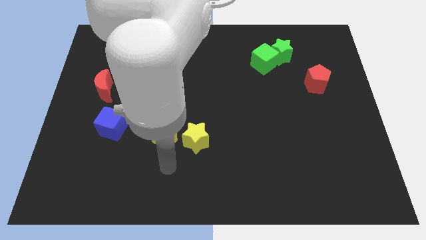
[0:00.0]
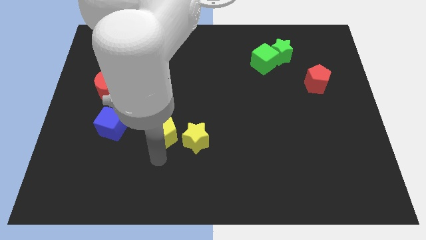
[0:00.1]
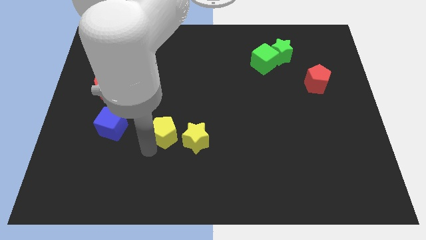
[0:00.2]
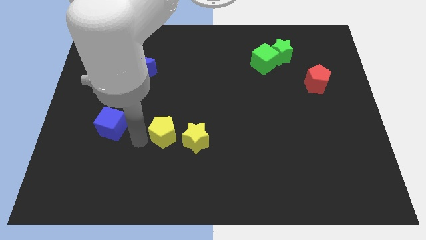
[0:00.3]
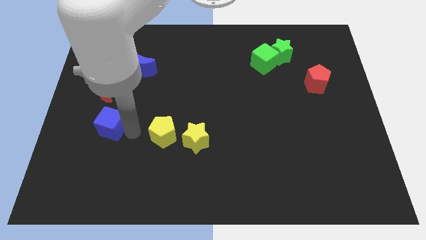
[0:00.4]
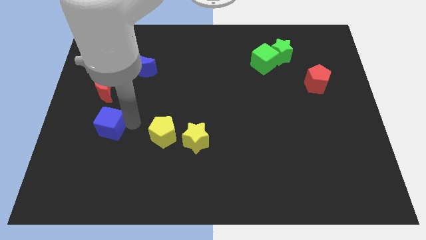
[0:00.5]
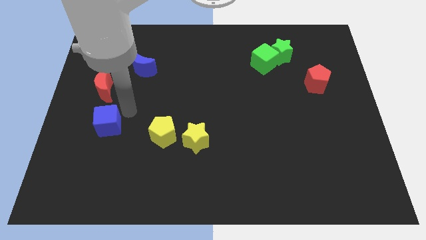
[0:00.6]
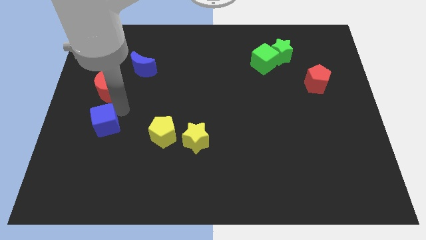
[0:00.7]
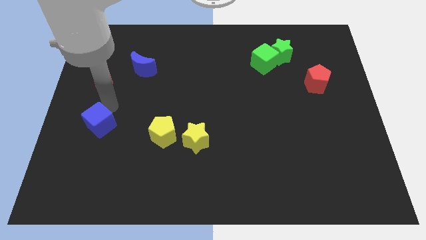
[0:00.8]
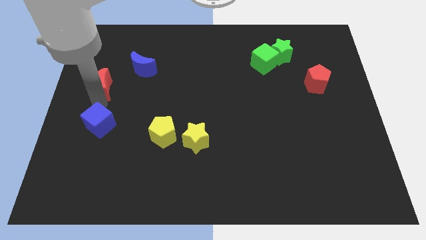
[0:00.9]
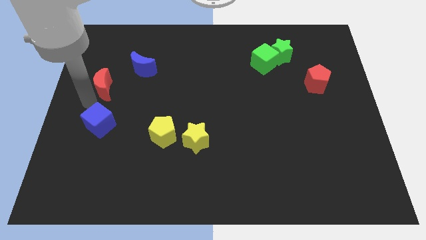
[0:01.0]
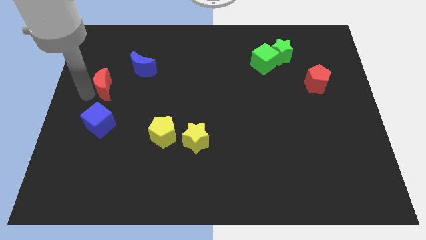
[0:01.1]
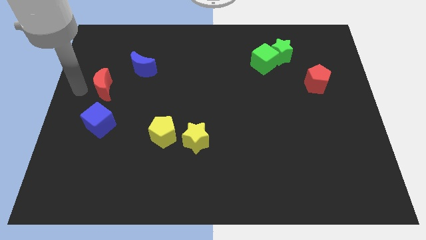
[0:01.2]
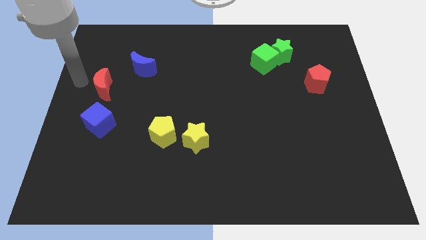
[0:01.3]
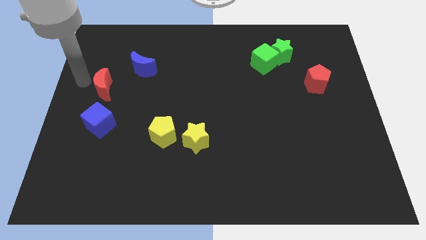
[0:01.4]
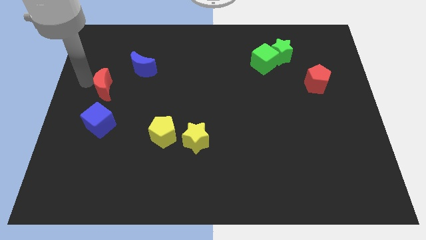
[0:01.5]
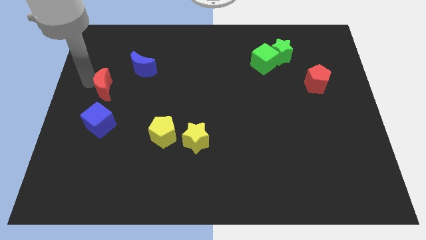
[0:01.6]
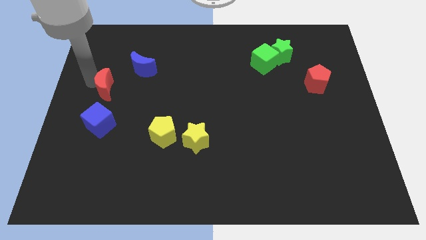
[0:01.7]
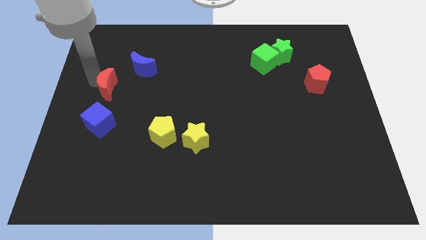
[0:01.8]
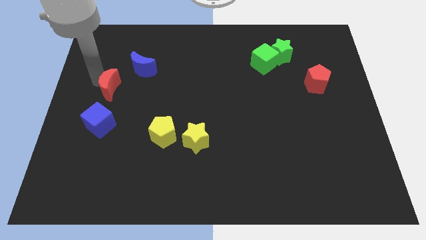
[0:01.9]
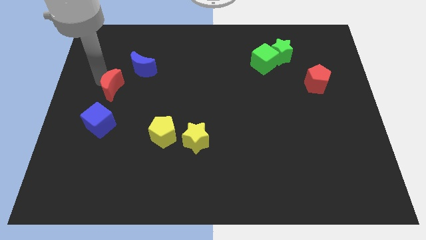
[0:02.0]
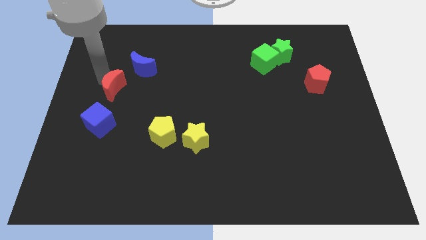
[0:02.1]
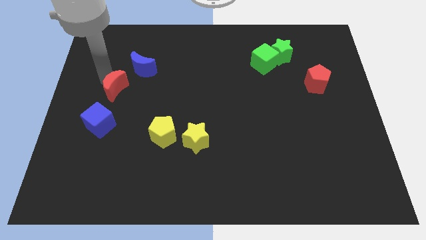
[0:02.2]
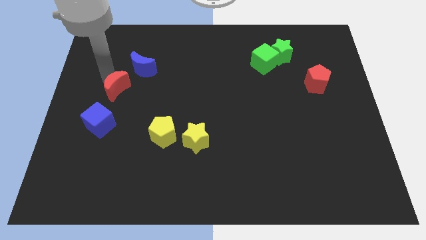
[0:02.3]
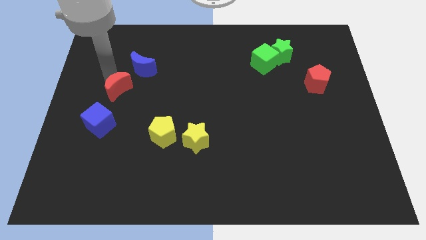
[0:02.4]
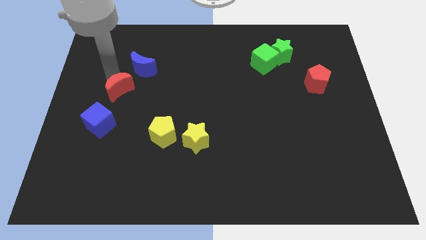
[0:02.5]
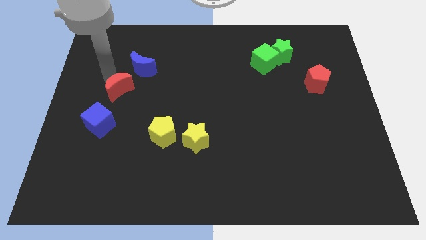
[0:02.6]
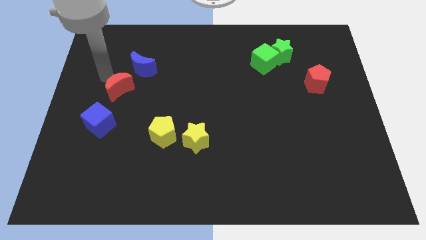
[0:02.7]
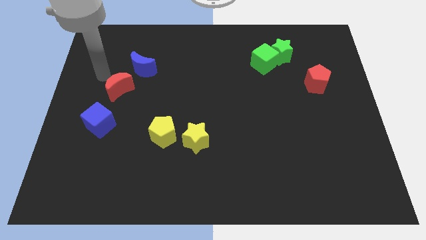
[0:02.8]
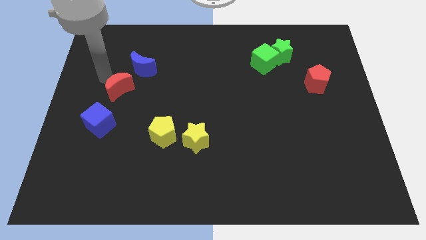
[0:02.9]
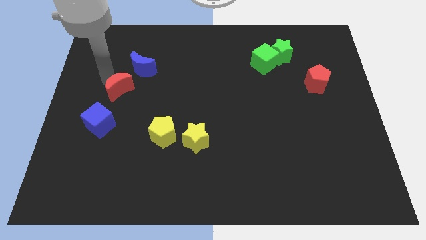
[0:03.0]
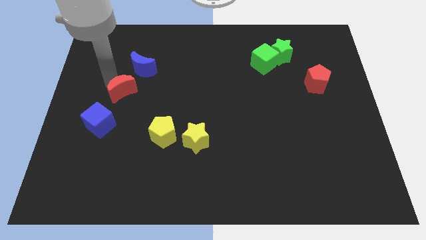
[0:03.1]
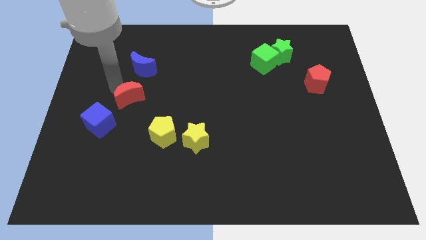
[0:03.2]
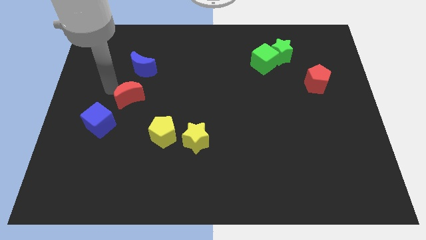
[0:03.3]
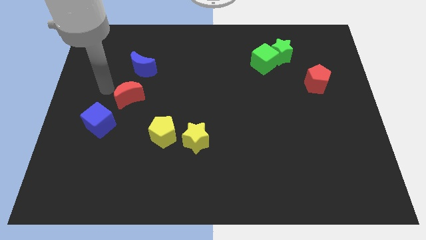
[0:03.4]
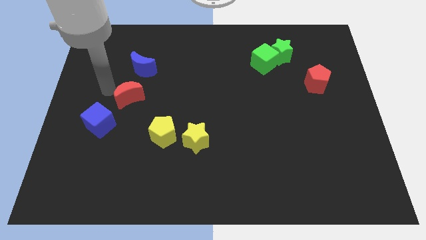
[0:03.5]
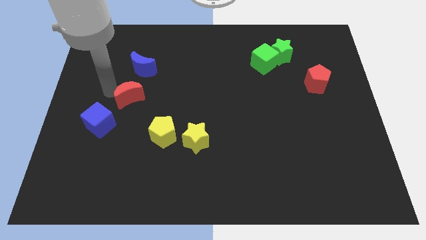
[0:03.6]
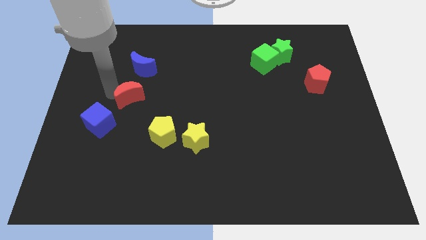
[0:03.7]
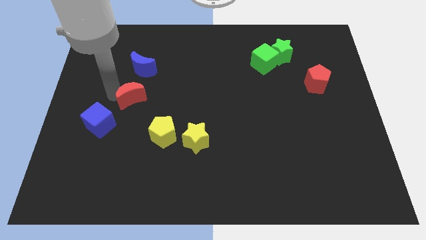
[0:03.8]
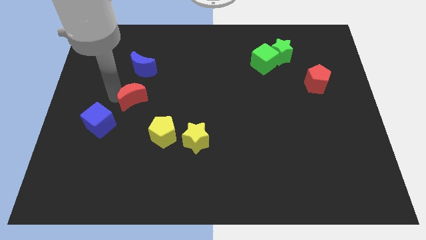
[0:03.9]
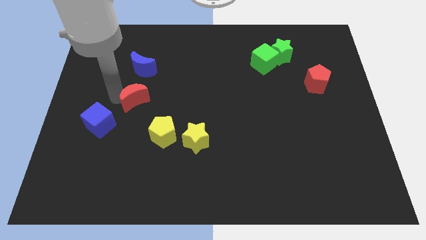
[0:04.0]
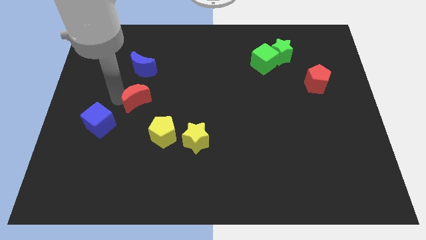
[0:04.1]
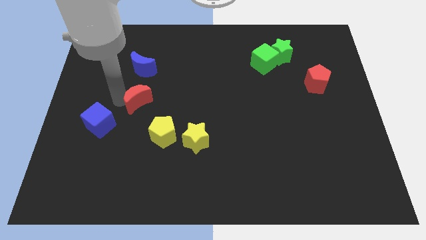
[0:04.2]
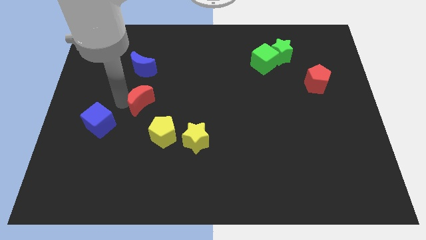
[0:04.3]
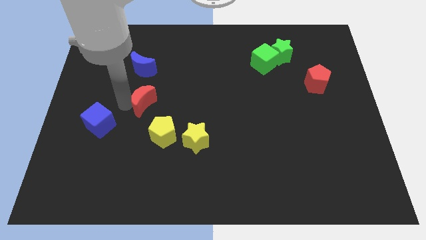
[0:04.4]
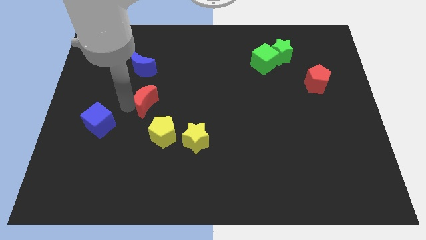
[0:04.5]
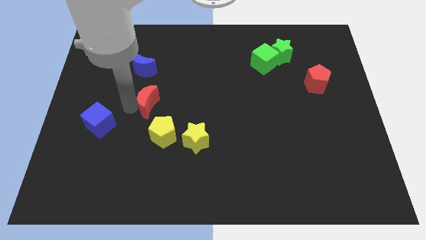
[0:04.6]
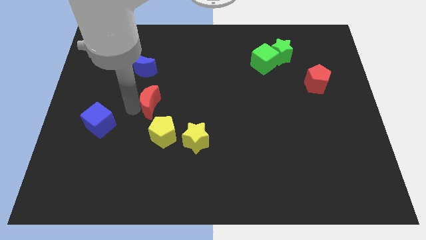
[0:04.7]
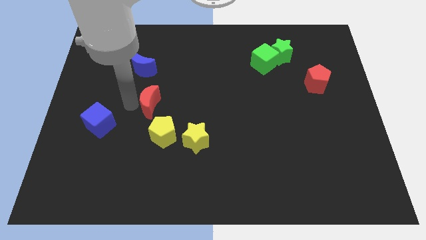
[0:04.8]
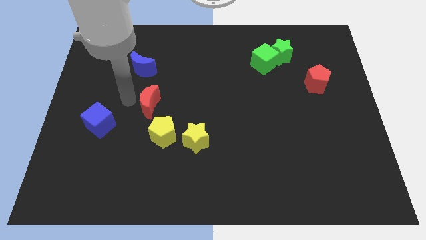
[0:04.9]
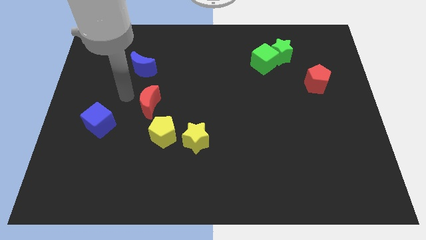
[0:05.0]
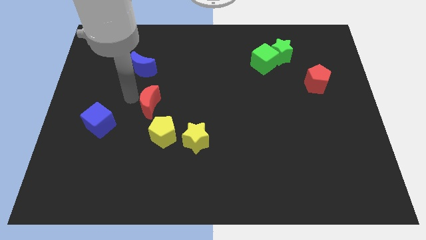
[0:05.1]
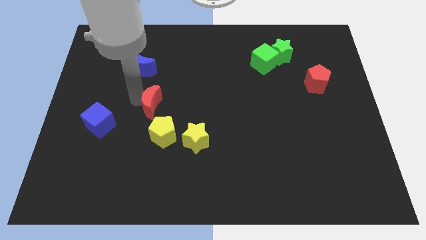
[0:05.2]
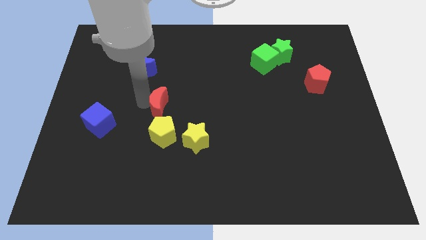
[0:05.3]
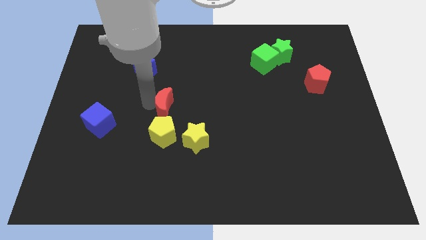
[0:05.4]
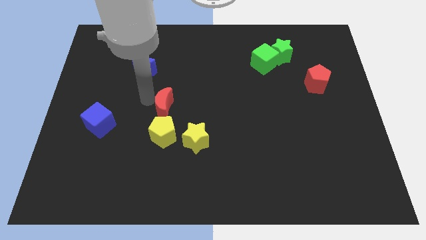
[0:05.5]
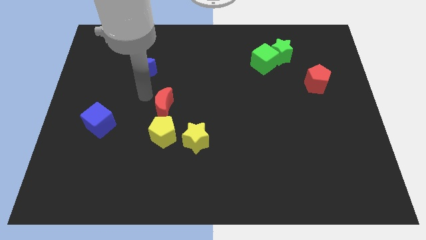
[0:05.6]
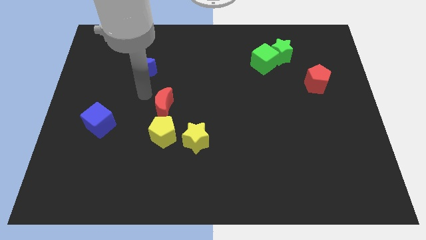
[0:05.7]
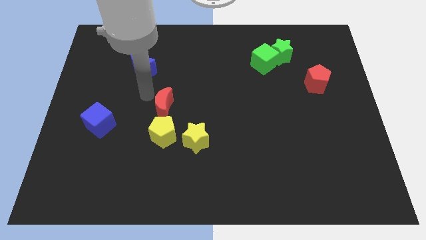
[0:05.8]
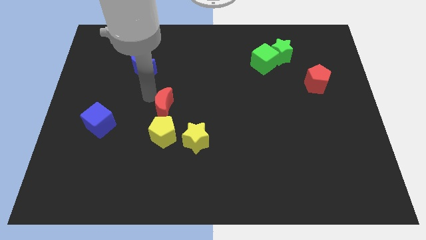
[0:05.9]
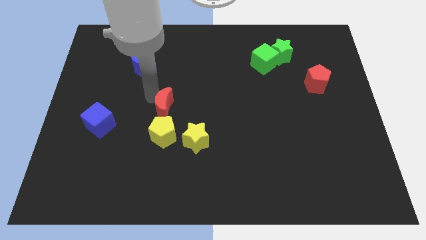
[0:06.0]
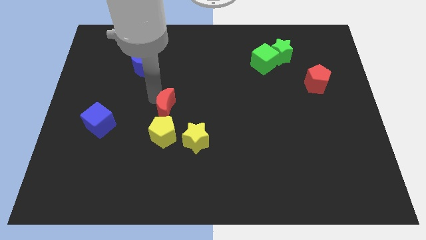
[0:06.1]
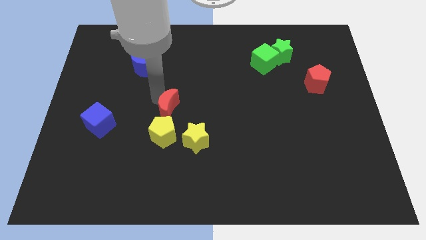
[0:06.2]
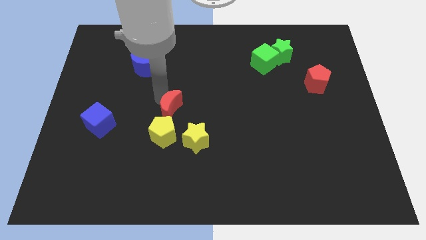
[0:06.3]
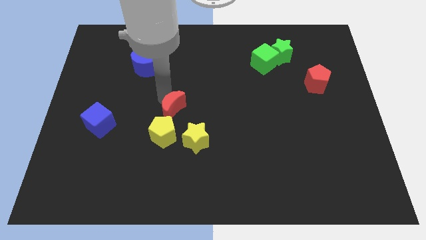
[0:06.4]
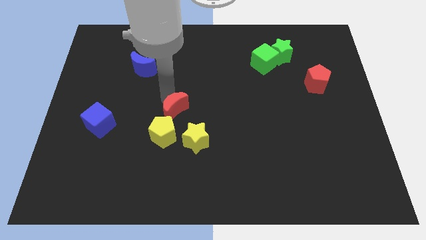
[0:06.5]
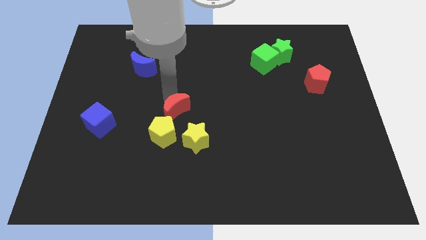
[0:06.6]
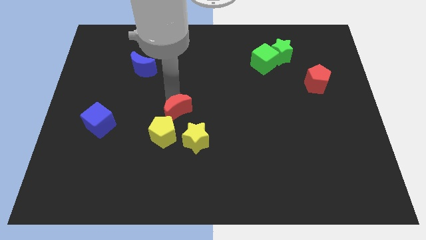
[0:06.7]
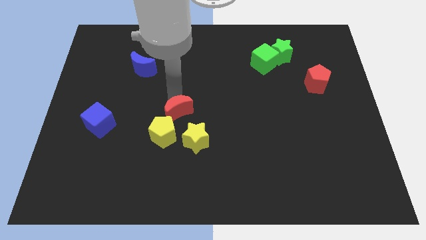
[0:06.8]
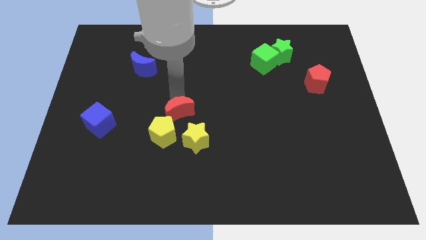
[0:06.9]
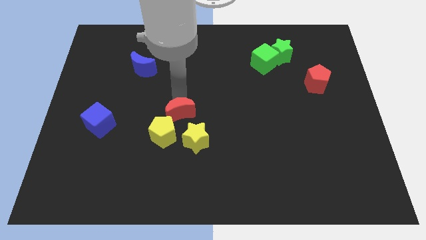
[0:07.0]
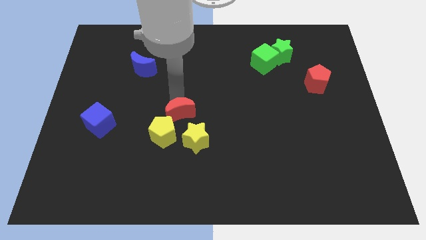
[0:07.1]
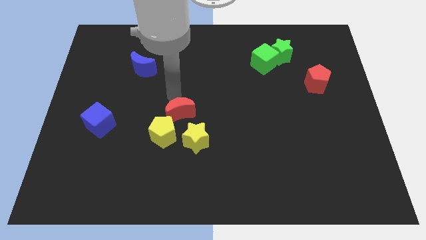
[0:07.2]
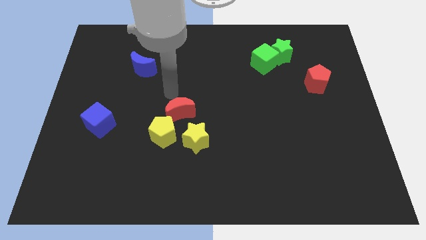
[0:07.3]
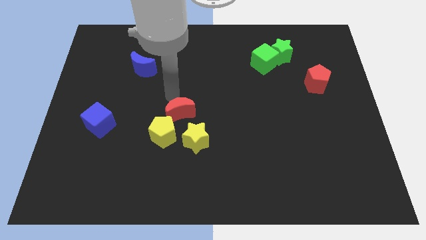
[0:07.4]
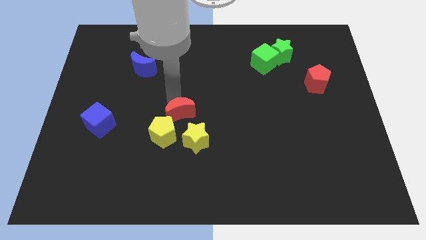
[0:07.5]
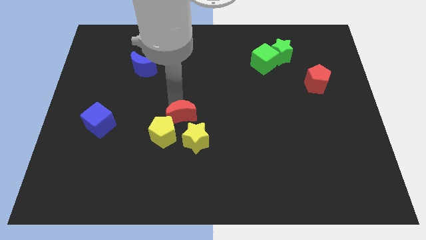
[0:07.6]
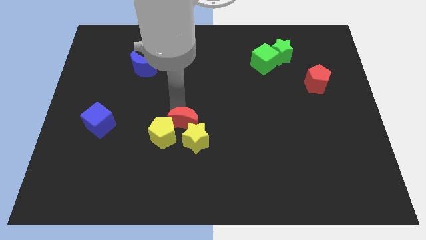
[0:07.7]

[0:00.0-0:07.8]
push the red moon close to the yellow star
